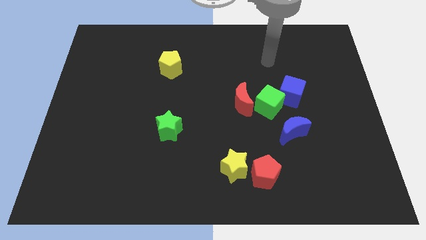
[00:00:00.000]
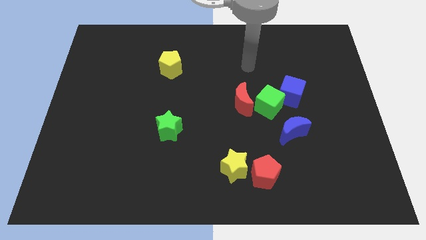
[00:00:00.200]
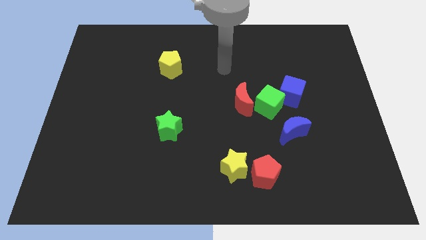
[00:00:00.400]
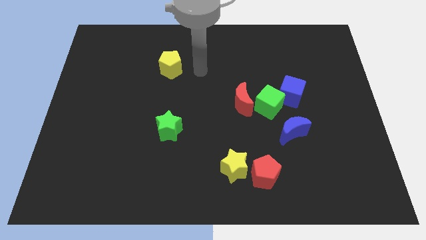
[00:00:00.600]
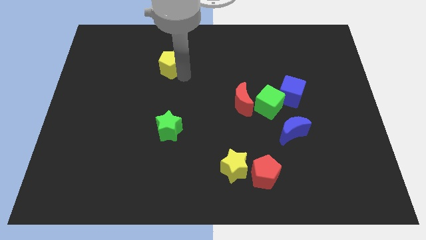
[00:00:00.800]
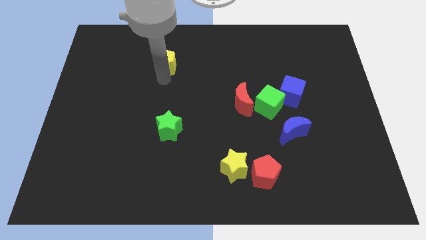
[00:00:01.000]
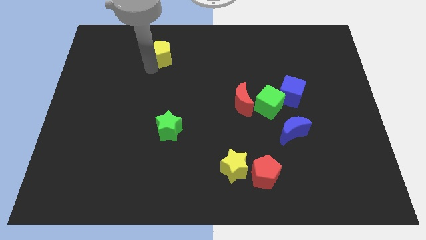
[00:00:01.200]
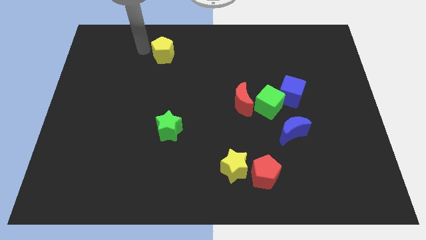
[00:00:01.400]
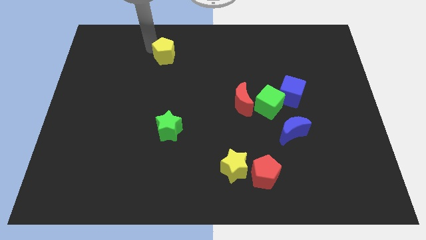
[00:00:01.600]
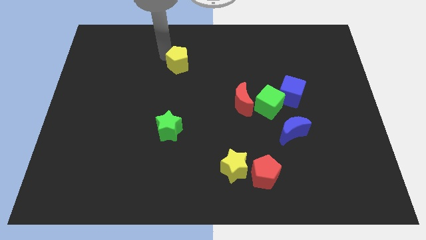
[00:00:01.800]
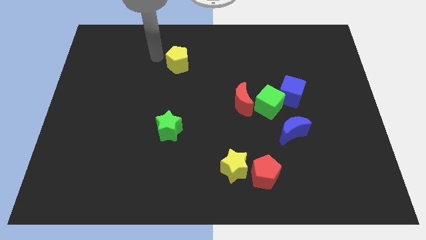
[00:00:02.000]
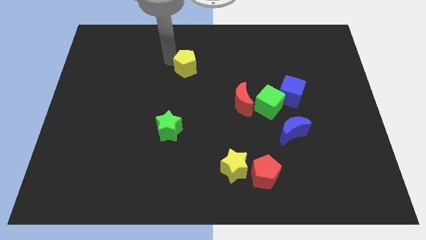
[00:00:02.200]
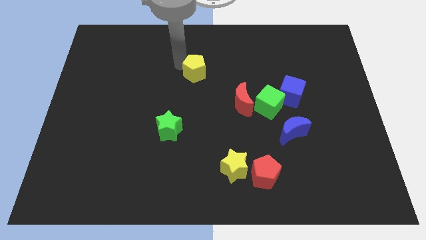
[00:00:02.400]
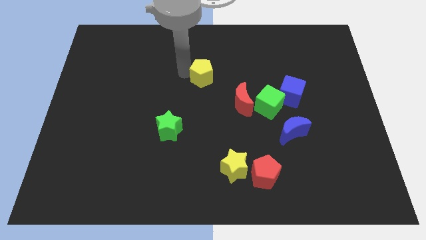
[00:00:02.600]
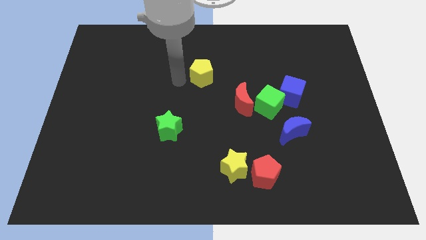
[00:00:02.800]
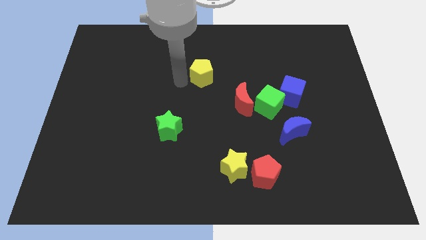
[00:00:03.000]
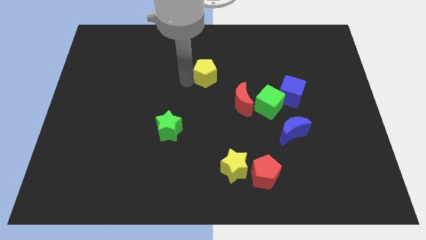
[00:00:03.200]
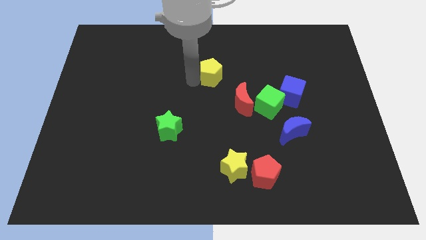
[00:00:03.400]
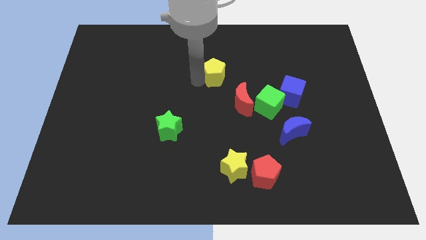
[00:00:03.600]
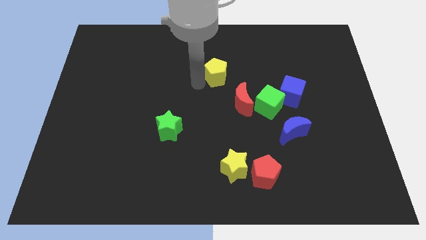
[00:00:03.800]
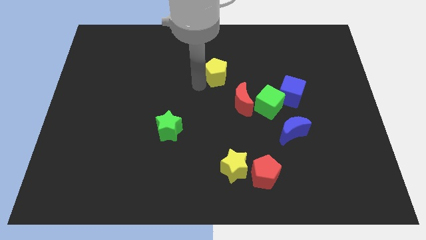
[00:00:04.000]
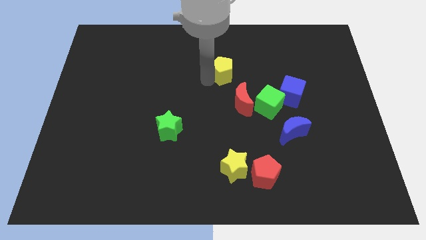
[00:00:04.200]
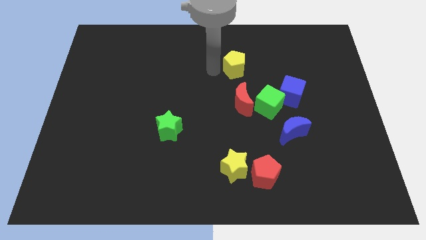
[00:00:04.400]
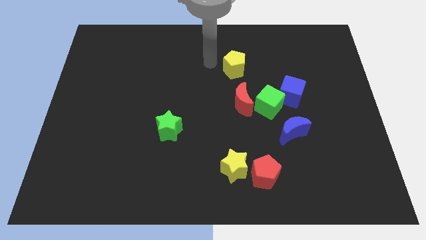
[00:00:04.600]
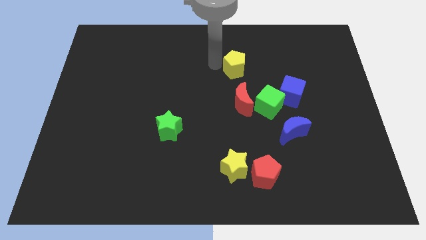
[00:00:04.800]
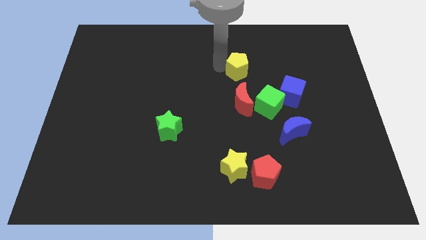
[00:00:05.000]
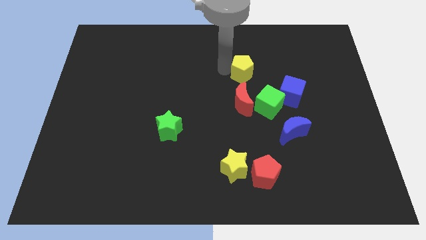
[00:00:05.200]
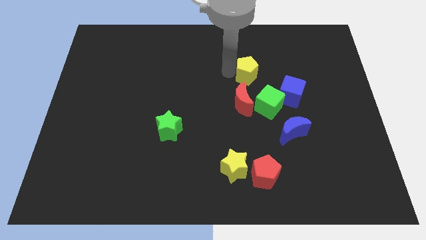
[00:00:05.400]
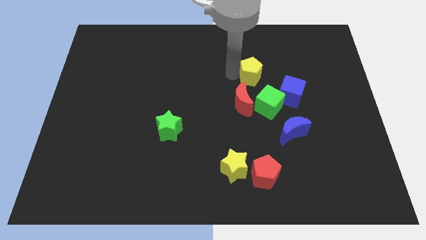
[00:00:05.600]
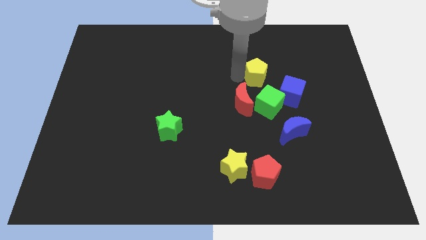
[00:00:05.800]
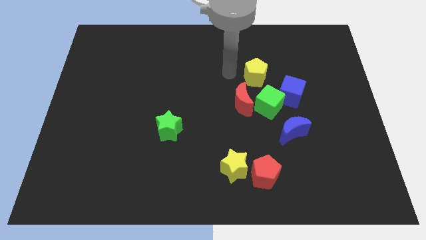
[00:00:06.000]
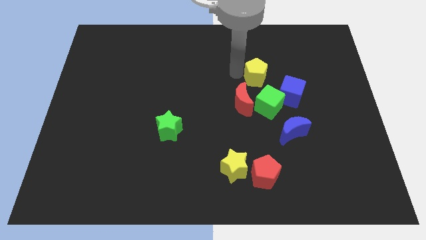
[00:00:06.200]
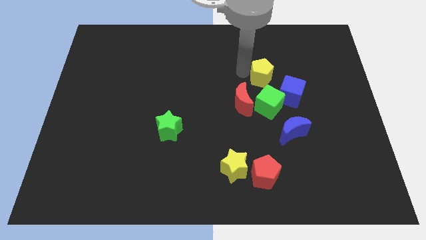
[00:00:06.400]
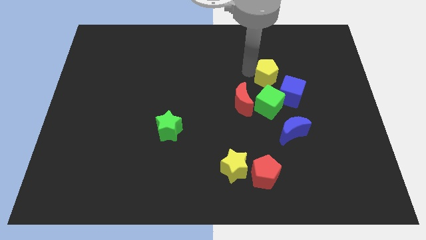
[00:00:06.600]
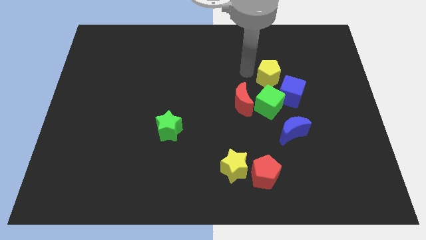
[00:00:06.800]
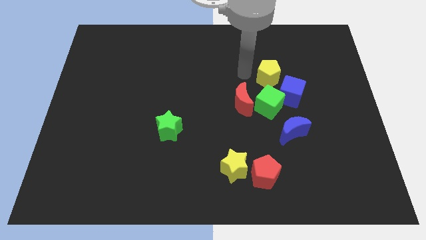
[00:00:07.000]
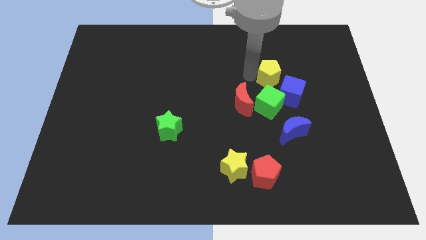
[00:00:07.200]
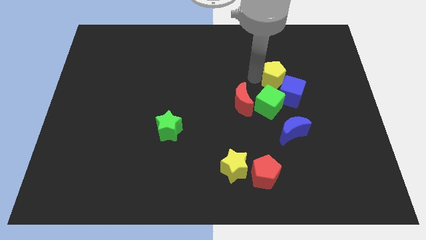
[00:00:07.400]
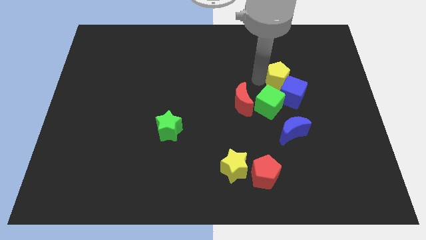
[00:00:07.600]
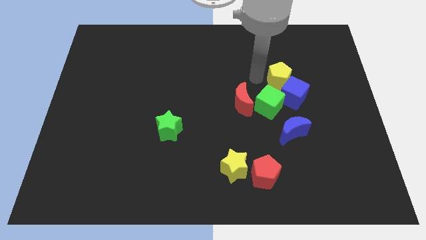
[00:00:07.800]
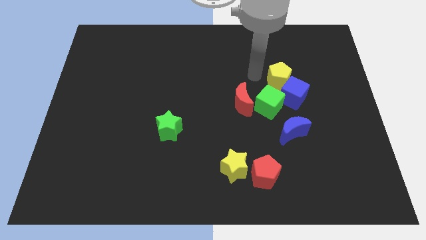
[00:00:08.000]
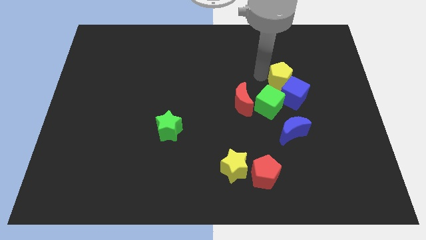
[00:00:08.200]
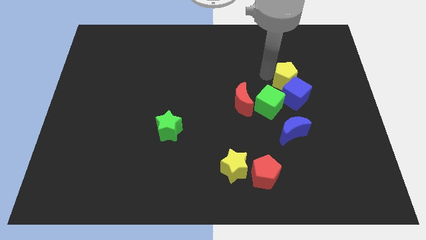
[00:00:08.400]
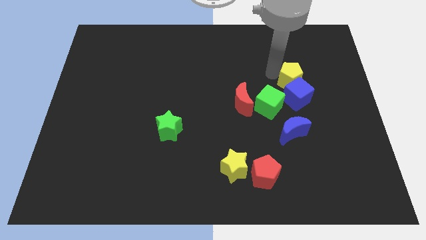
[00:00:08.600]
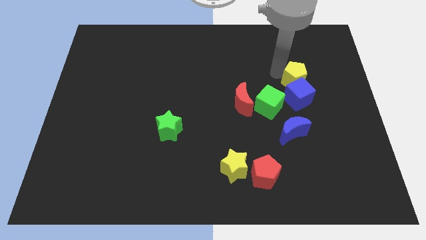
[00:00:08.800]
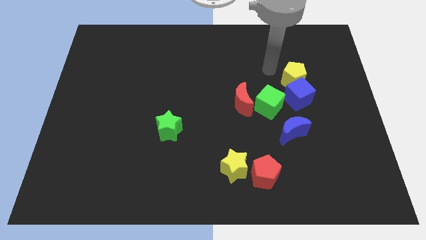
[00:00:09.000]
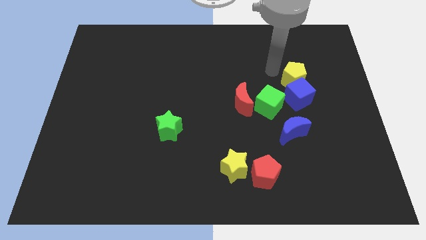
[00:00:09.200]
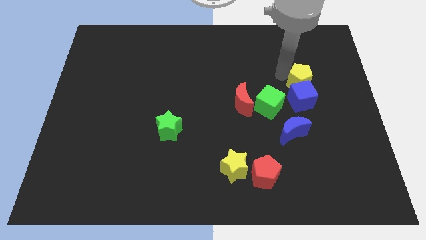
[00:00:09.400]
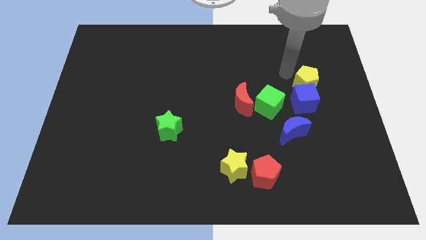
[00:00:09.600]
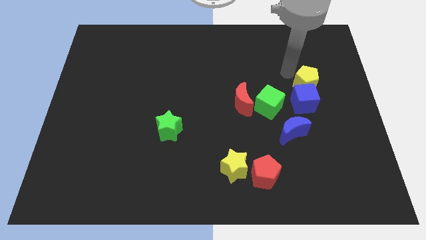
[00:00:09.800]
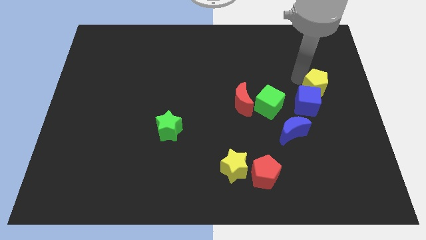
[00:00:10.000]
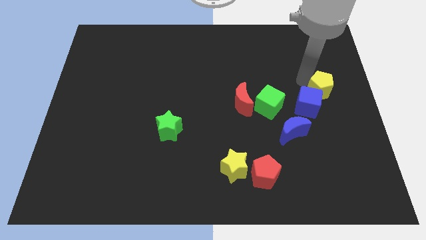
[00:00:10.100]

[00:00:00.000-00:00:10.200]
slide the yellow pentagon to the center right
